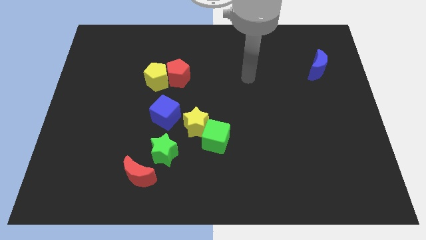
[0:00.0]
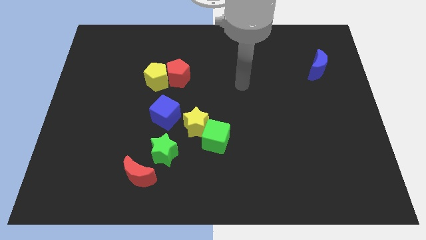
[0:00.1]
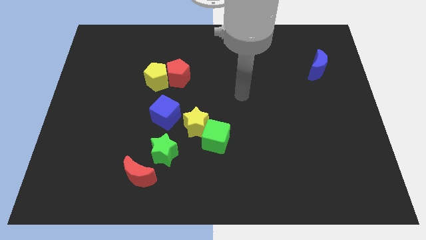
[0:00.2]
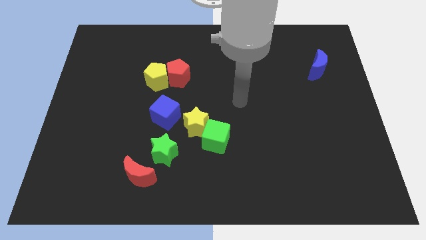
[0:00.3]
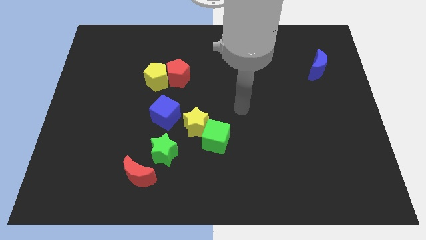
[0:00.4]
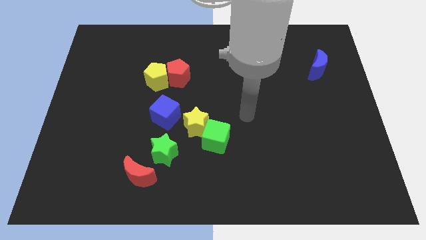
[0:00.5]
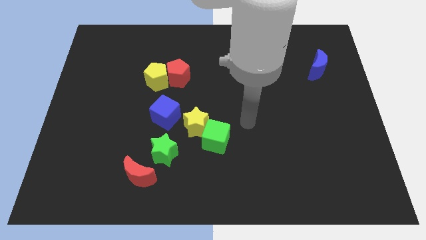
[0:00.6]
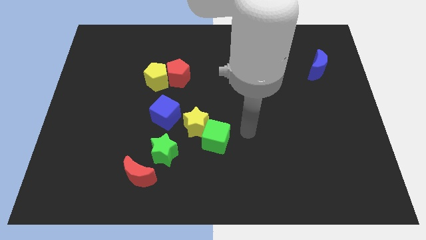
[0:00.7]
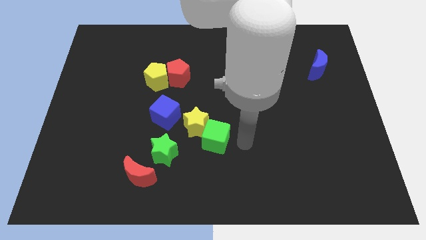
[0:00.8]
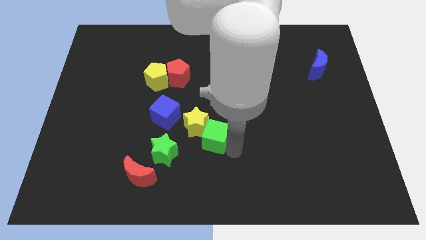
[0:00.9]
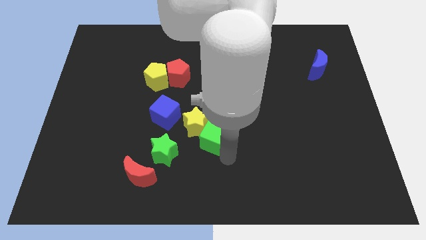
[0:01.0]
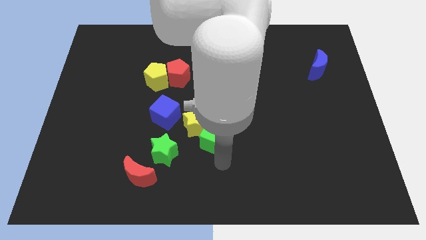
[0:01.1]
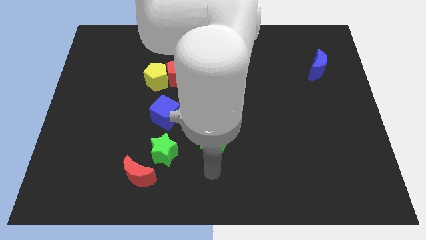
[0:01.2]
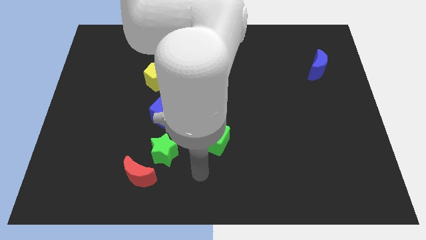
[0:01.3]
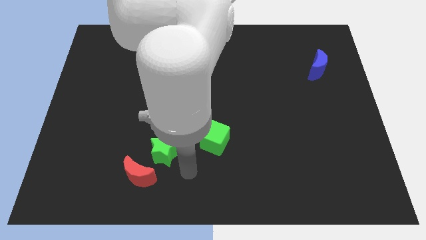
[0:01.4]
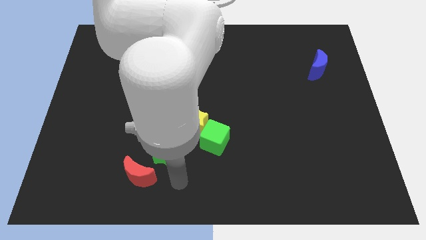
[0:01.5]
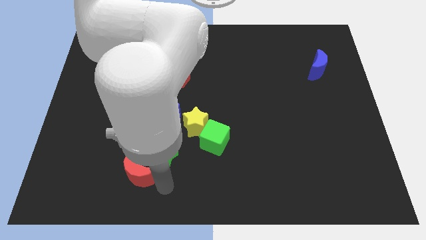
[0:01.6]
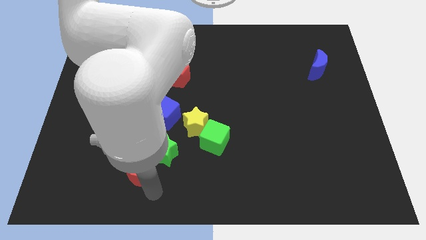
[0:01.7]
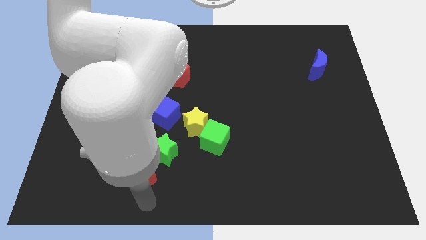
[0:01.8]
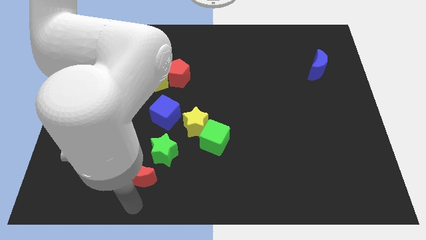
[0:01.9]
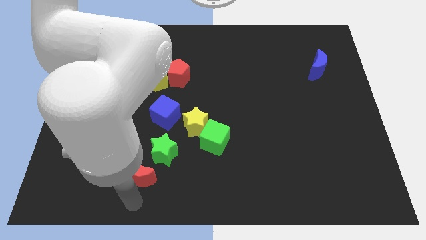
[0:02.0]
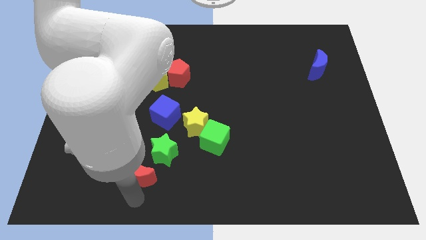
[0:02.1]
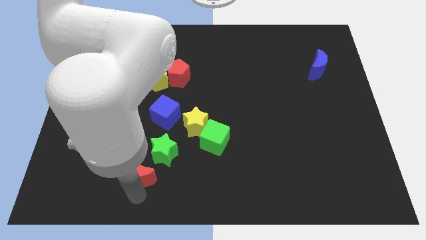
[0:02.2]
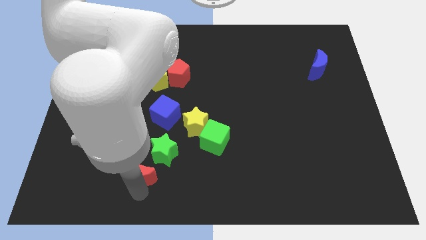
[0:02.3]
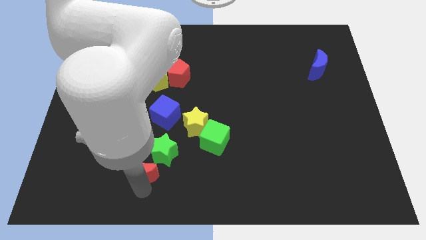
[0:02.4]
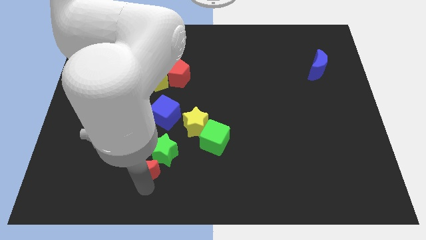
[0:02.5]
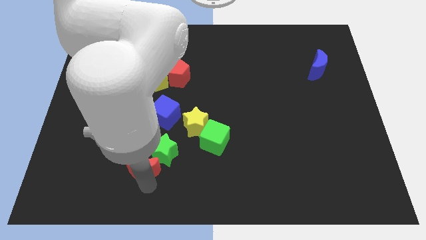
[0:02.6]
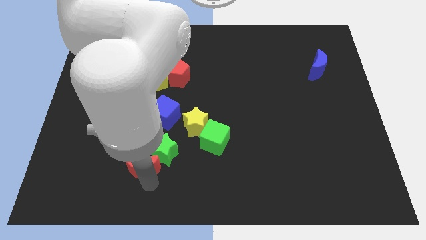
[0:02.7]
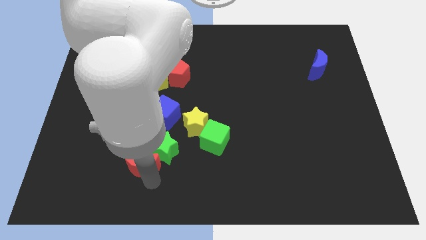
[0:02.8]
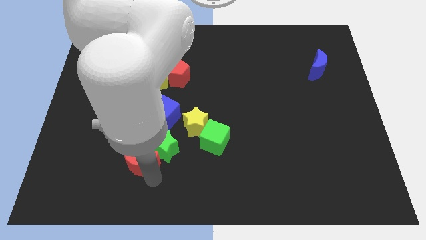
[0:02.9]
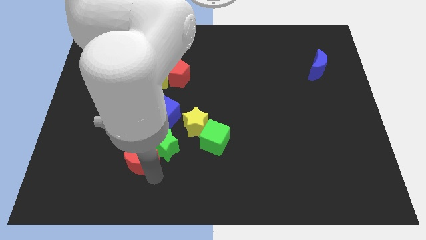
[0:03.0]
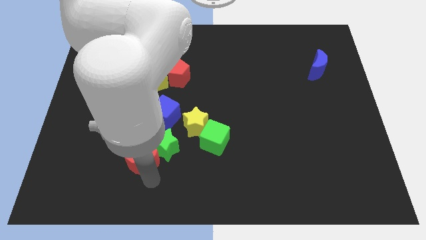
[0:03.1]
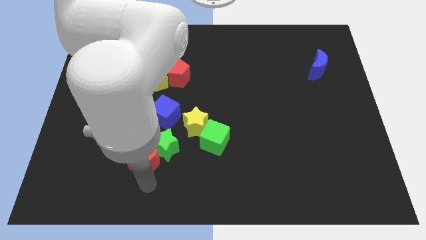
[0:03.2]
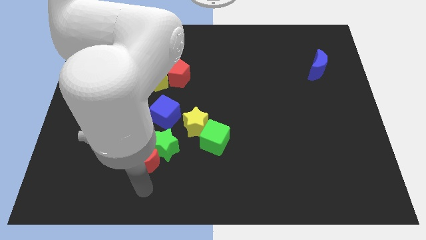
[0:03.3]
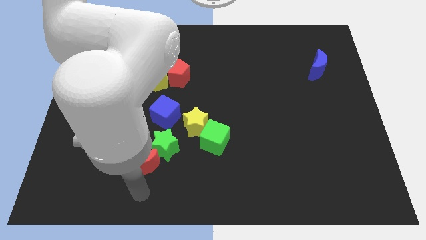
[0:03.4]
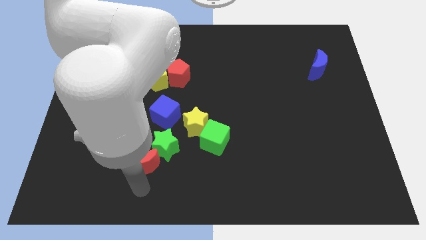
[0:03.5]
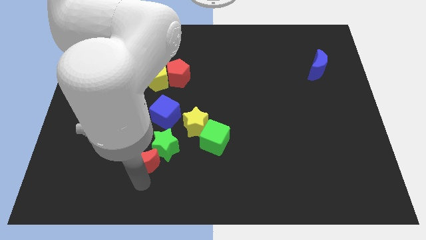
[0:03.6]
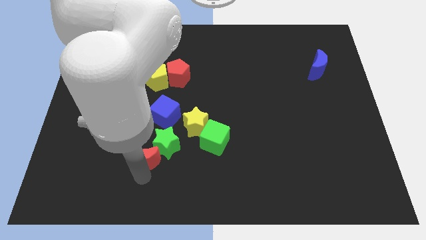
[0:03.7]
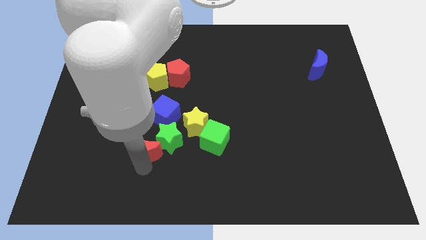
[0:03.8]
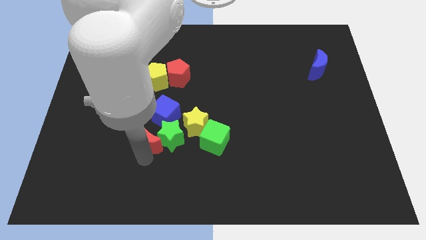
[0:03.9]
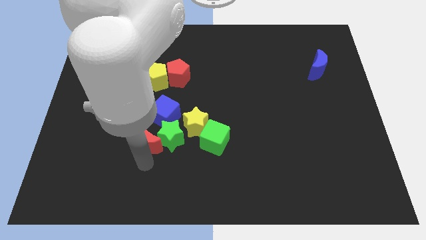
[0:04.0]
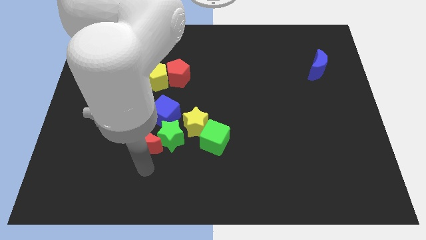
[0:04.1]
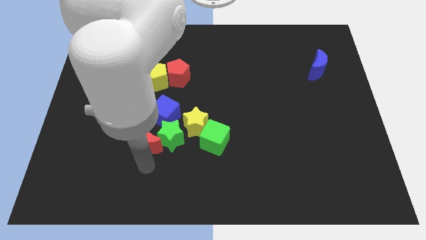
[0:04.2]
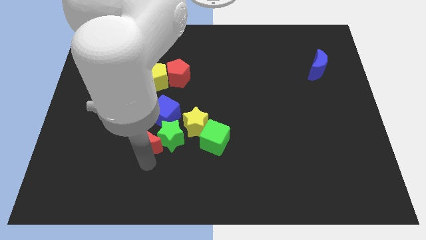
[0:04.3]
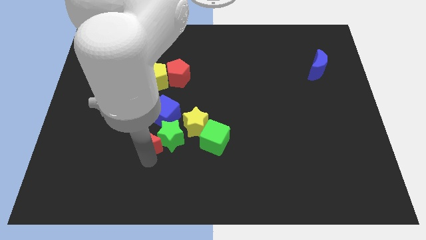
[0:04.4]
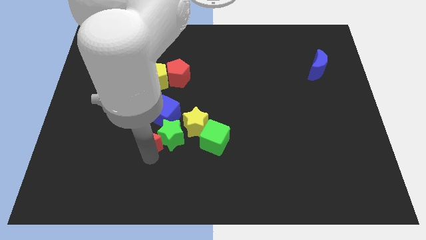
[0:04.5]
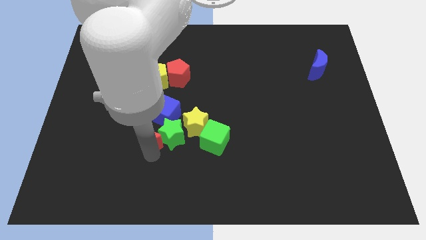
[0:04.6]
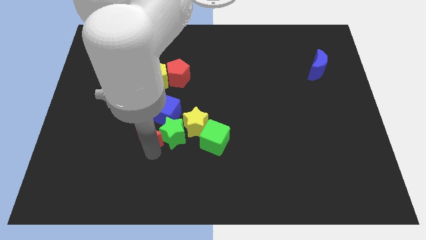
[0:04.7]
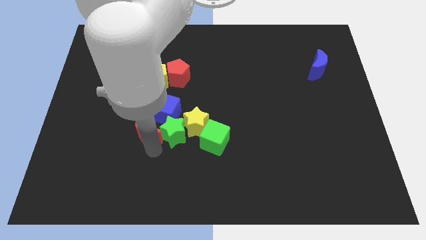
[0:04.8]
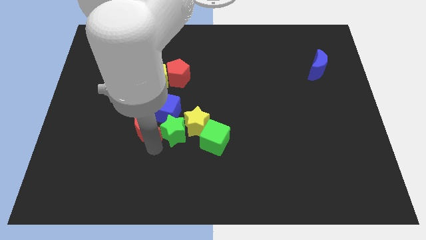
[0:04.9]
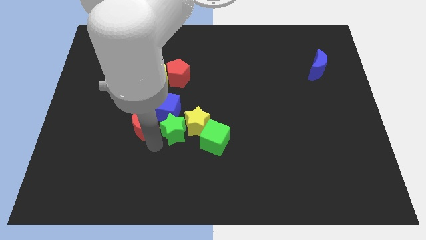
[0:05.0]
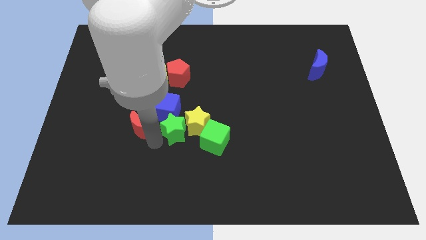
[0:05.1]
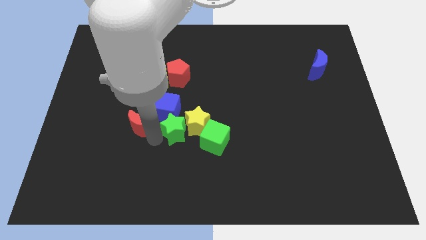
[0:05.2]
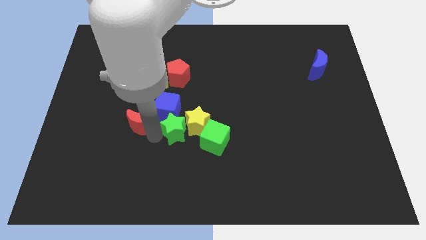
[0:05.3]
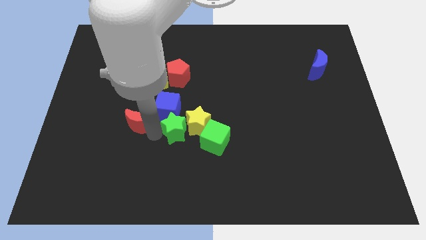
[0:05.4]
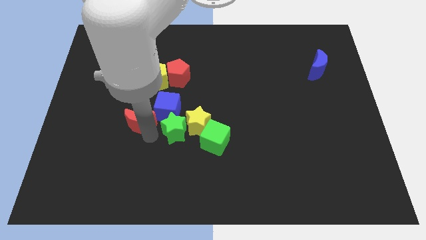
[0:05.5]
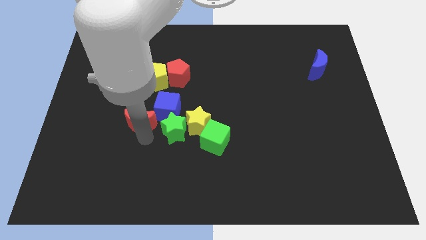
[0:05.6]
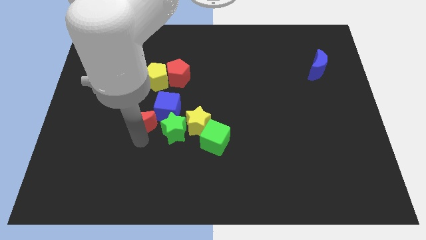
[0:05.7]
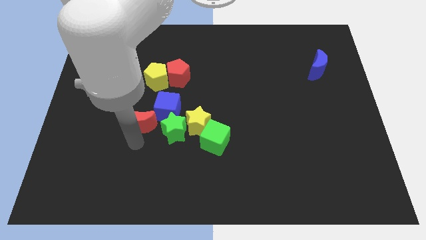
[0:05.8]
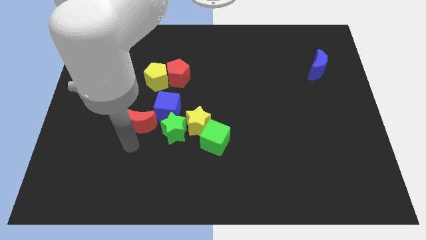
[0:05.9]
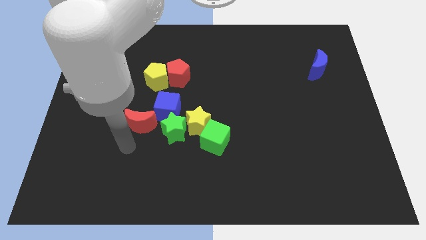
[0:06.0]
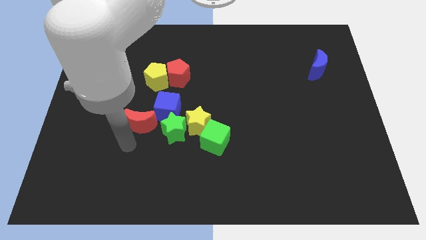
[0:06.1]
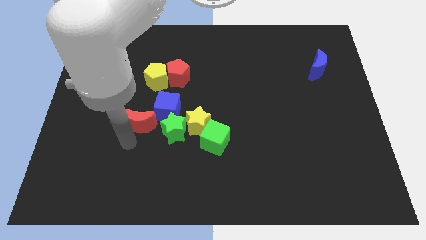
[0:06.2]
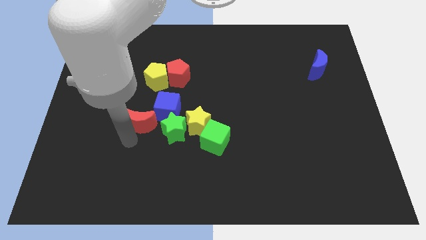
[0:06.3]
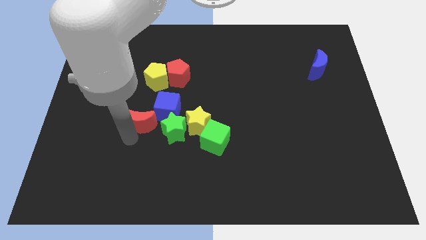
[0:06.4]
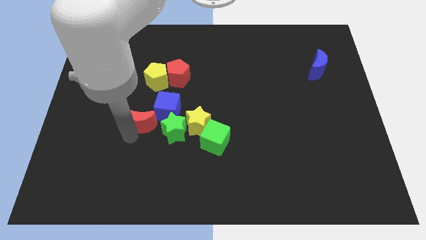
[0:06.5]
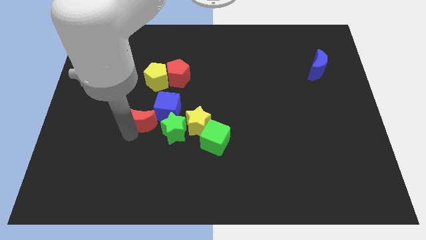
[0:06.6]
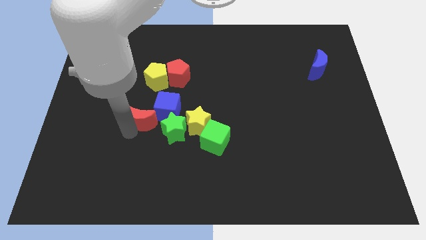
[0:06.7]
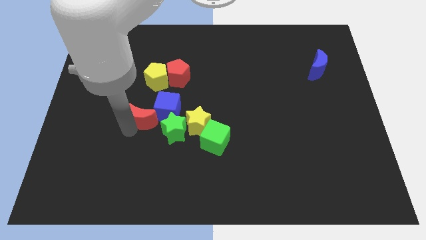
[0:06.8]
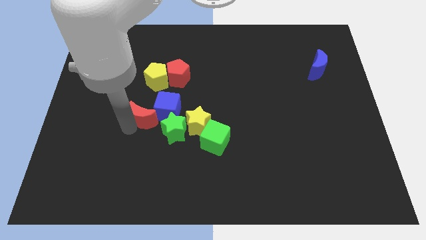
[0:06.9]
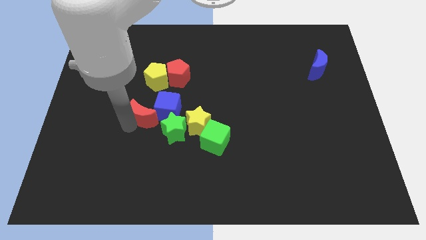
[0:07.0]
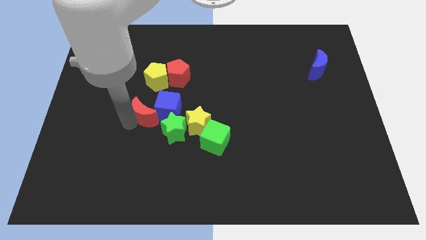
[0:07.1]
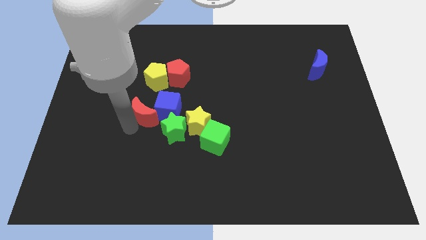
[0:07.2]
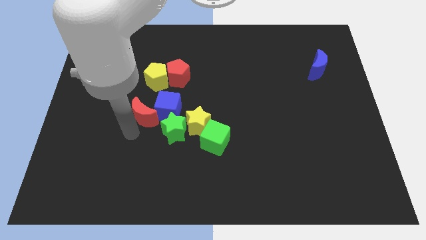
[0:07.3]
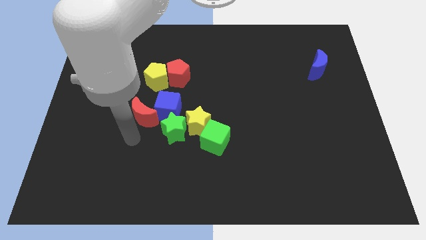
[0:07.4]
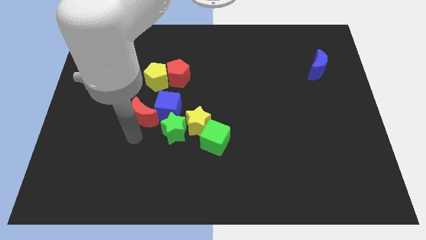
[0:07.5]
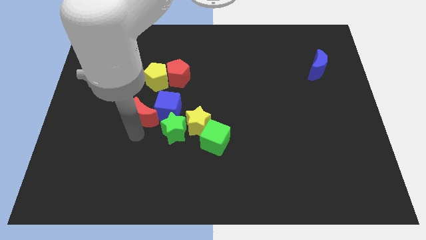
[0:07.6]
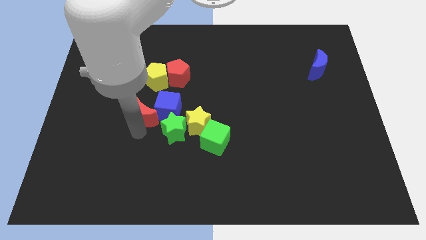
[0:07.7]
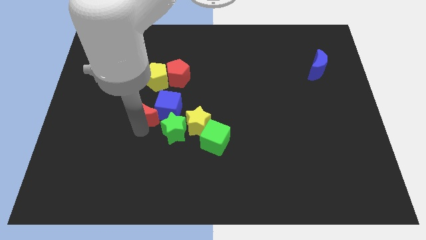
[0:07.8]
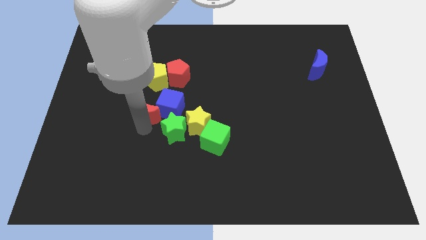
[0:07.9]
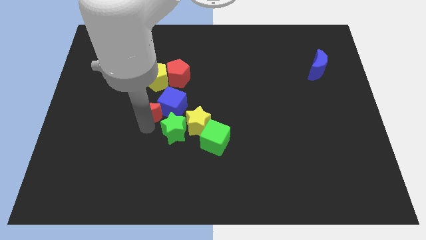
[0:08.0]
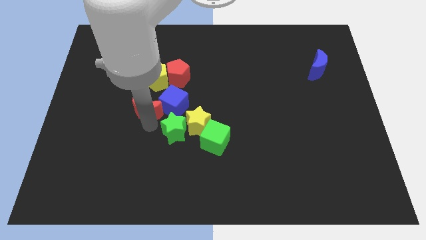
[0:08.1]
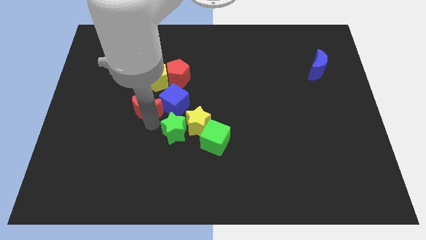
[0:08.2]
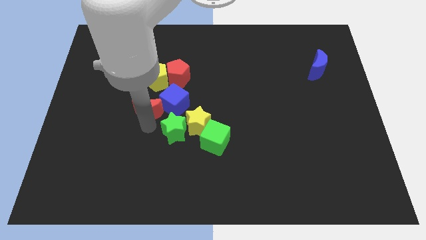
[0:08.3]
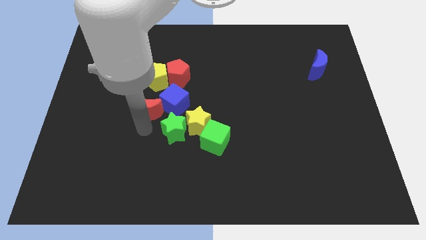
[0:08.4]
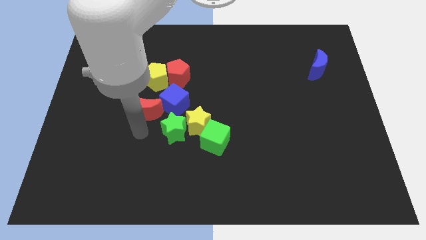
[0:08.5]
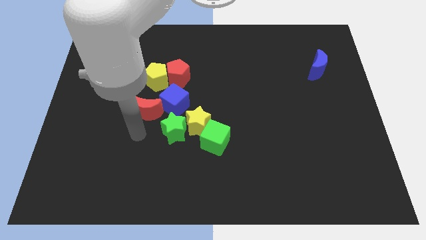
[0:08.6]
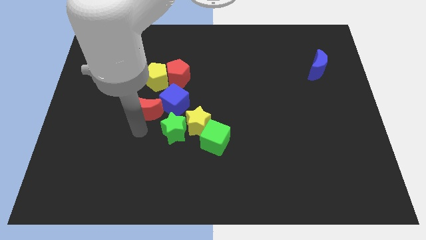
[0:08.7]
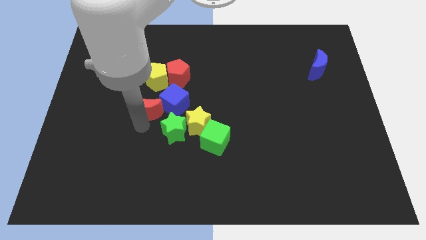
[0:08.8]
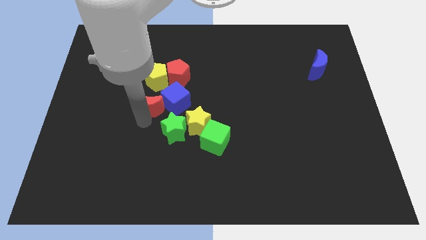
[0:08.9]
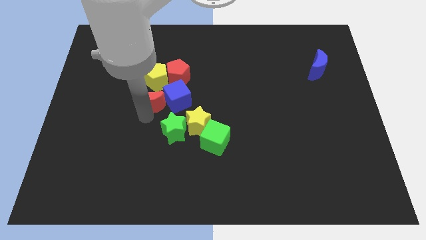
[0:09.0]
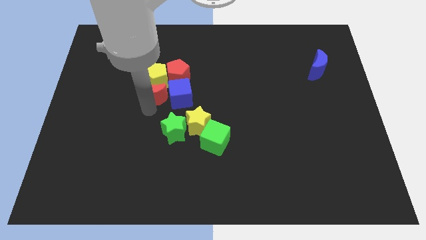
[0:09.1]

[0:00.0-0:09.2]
slide the red moon towards the yellow pentagon
